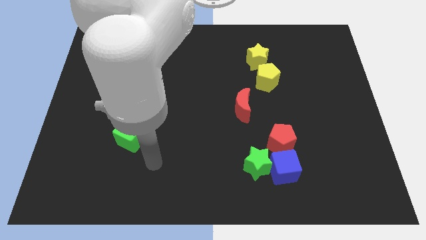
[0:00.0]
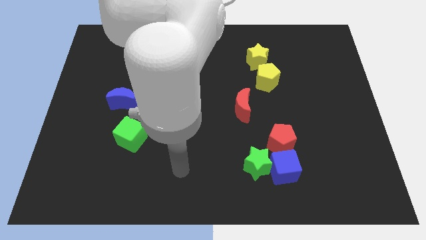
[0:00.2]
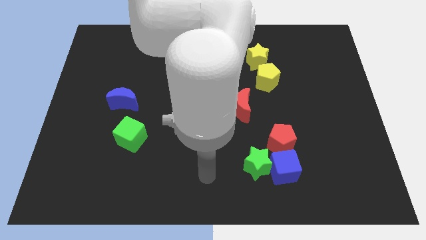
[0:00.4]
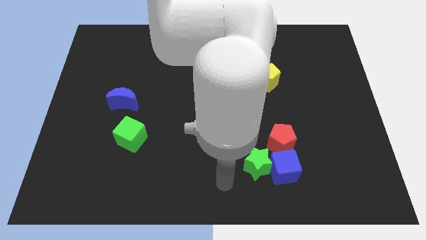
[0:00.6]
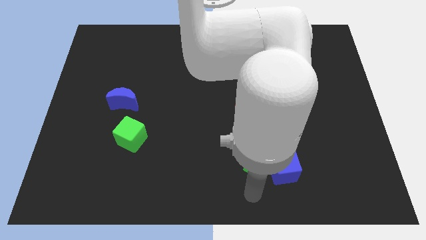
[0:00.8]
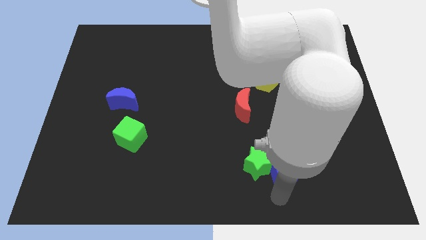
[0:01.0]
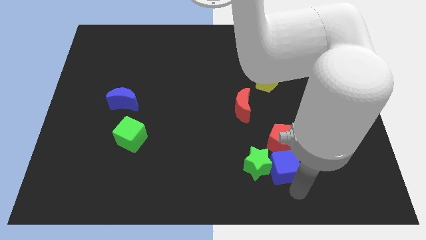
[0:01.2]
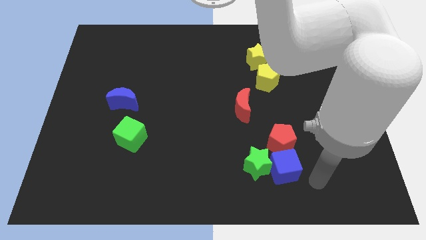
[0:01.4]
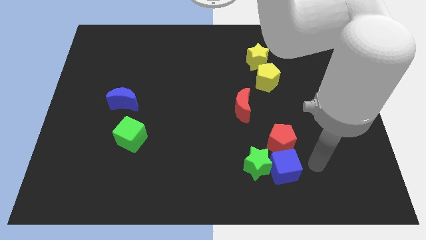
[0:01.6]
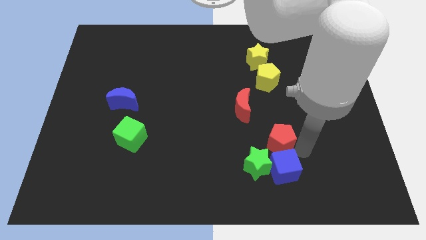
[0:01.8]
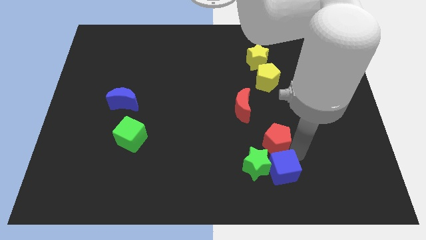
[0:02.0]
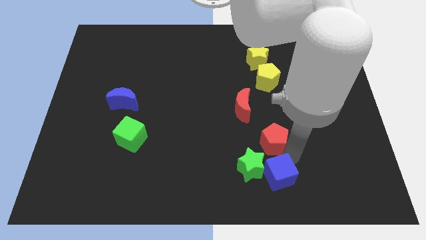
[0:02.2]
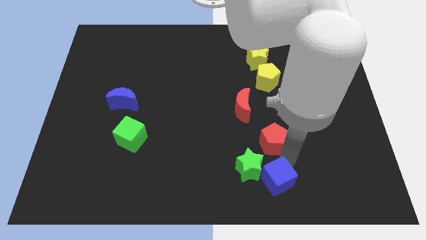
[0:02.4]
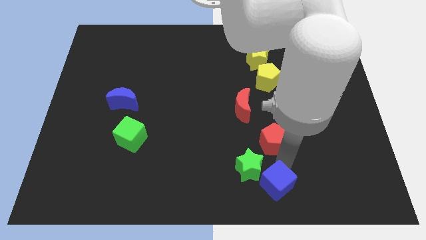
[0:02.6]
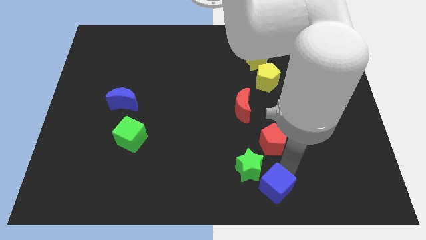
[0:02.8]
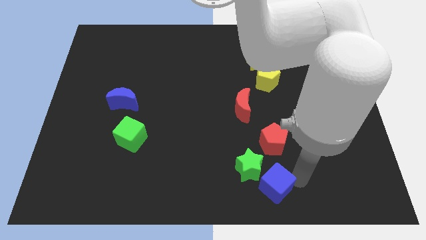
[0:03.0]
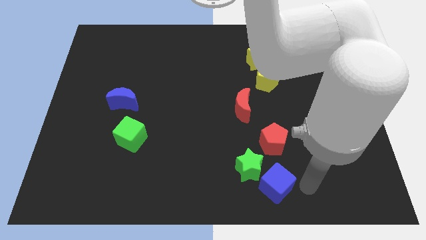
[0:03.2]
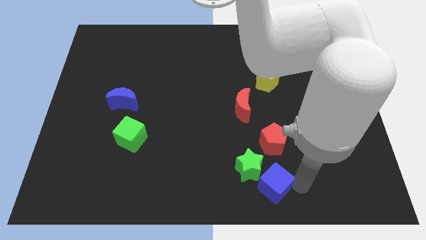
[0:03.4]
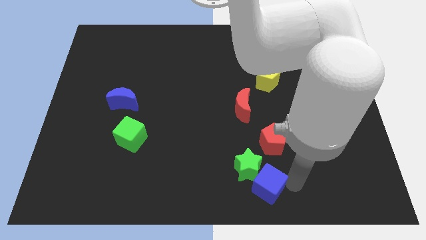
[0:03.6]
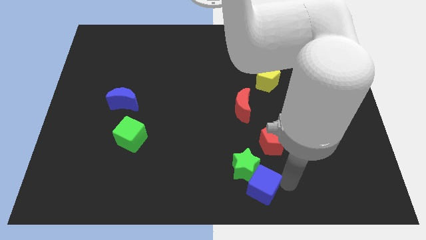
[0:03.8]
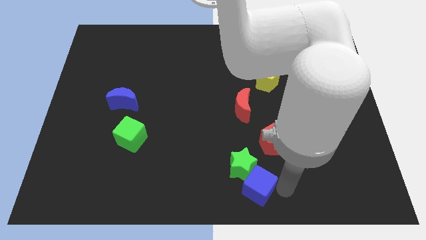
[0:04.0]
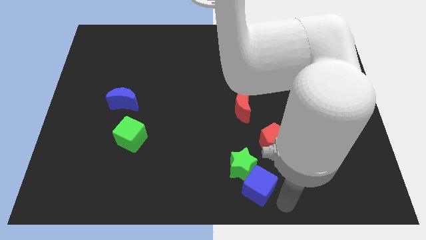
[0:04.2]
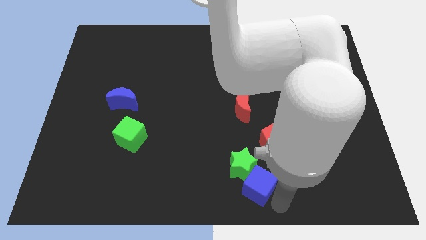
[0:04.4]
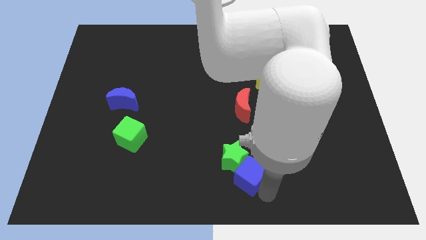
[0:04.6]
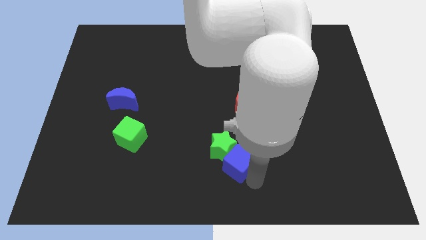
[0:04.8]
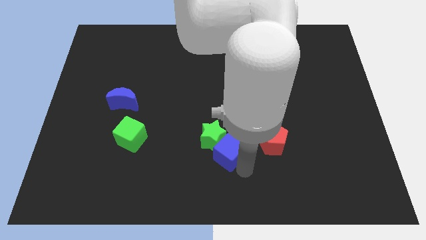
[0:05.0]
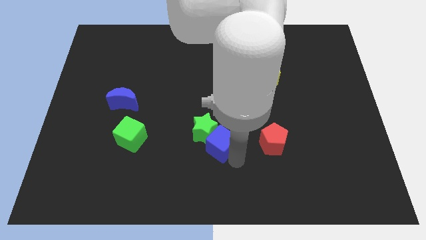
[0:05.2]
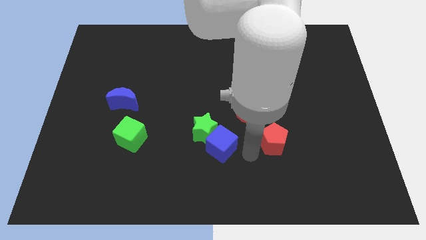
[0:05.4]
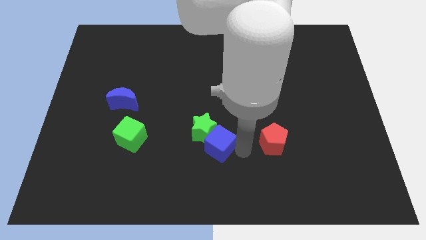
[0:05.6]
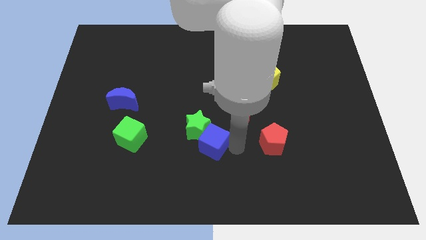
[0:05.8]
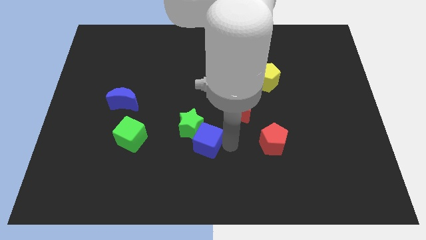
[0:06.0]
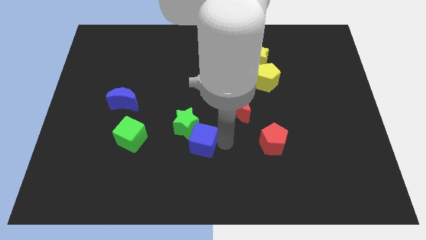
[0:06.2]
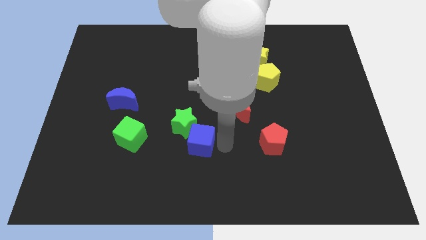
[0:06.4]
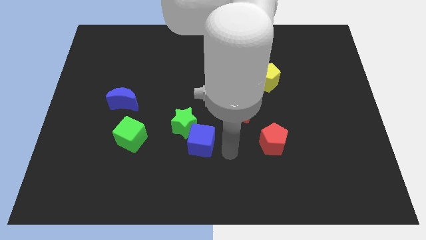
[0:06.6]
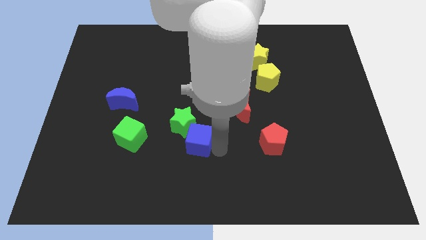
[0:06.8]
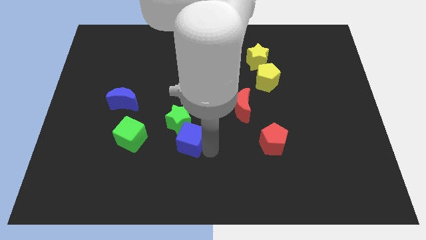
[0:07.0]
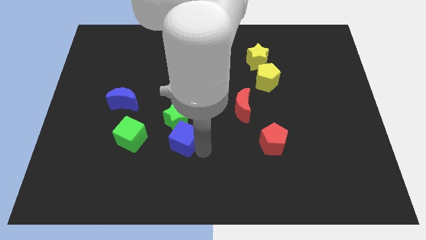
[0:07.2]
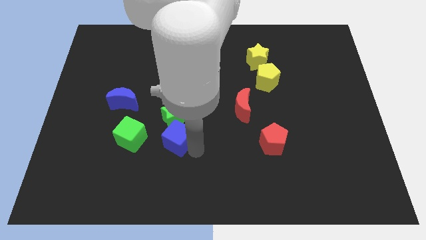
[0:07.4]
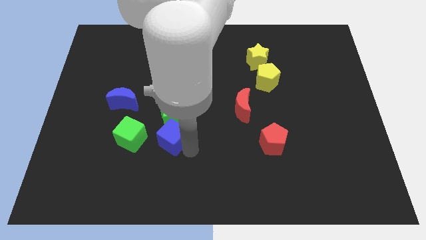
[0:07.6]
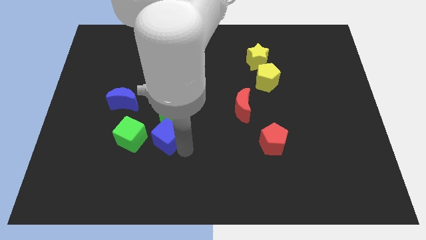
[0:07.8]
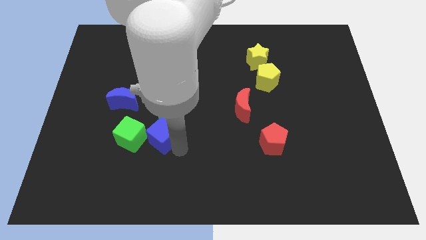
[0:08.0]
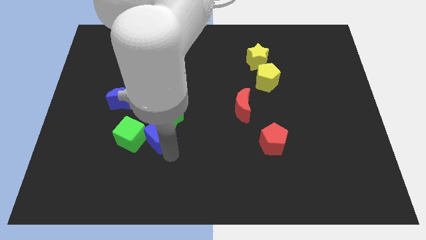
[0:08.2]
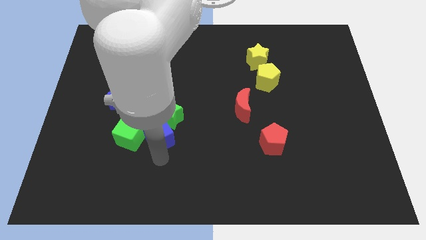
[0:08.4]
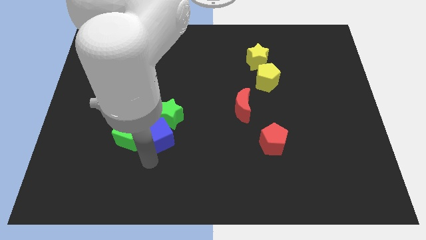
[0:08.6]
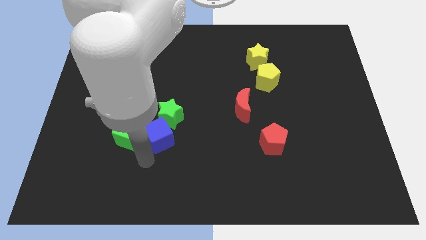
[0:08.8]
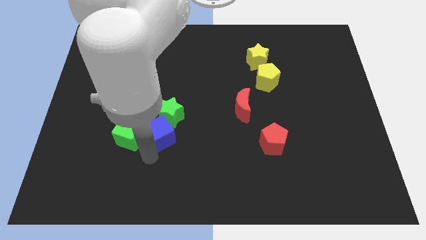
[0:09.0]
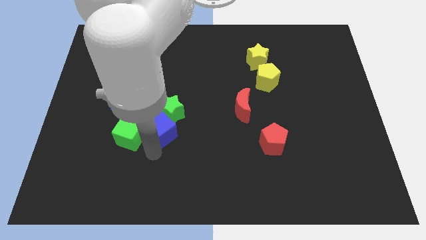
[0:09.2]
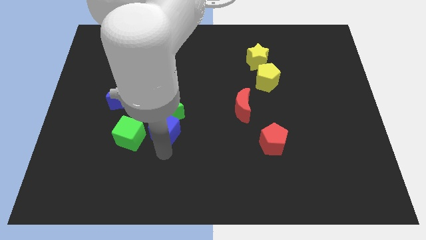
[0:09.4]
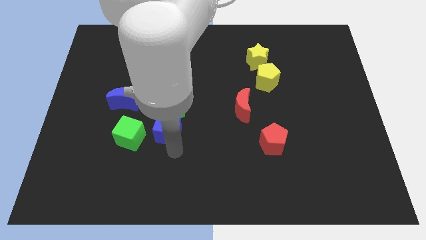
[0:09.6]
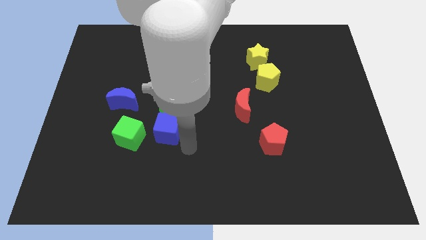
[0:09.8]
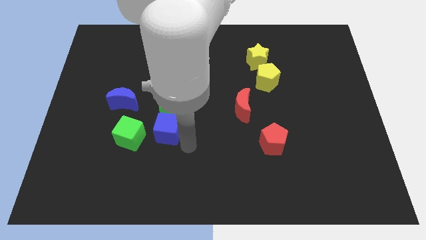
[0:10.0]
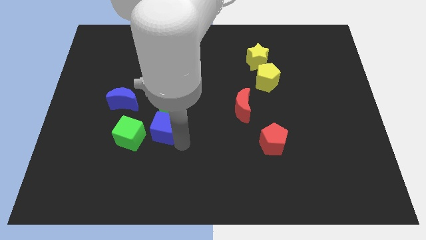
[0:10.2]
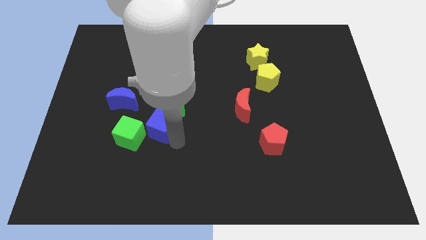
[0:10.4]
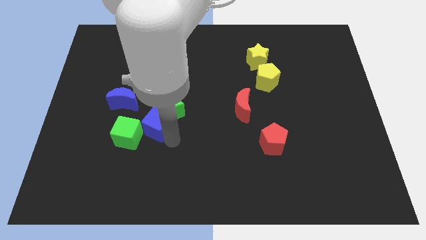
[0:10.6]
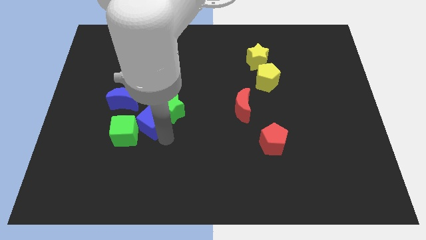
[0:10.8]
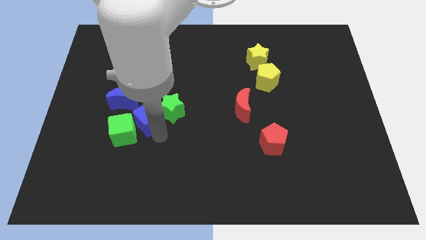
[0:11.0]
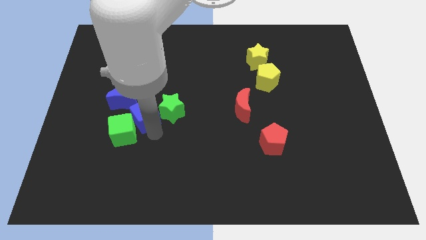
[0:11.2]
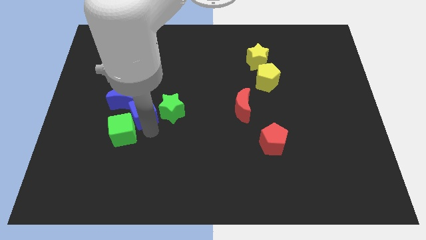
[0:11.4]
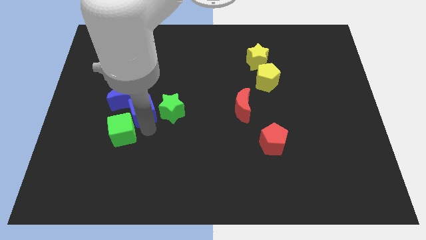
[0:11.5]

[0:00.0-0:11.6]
put the blue cube to the blue moon

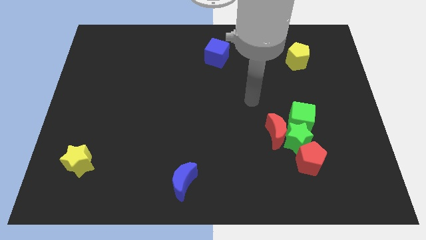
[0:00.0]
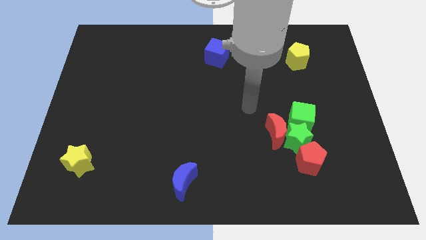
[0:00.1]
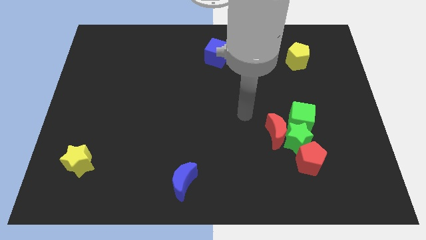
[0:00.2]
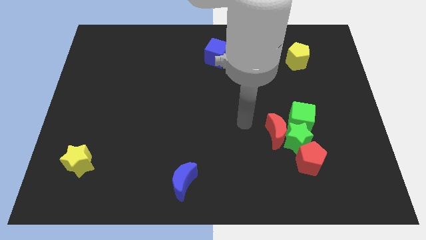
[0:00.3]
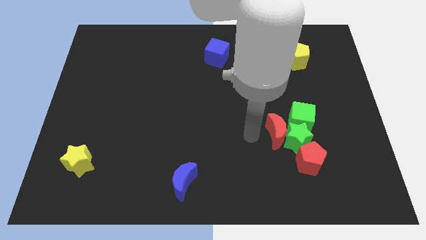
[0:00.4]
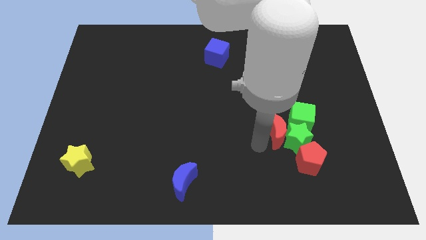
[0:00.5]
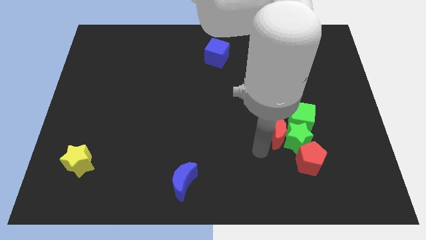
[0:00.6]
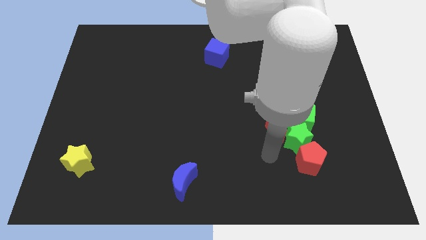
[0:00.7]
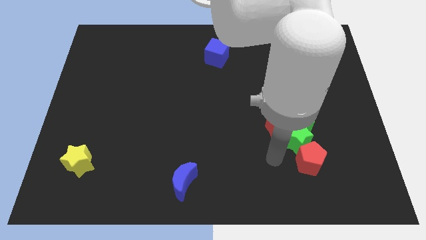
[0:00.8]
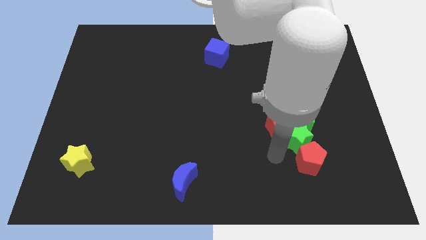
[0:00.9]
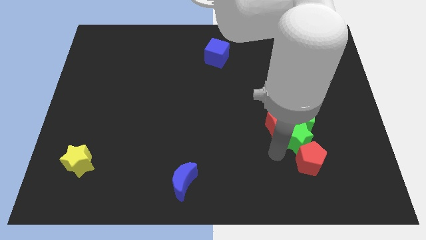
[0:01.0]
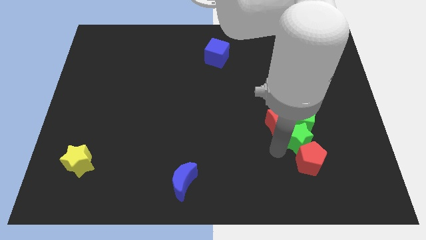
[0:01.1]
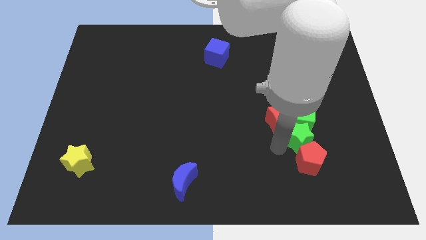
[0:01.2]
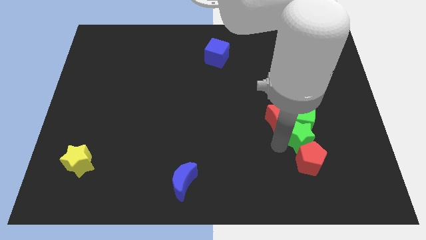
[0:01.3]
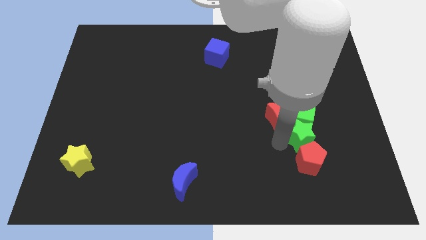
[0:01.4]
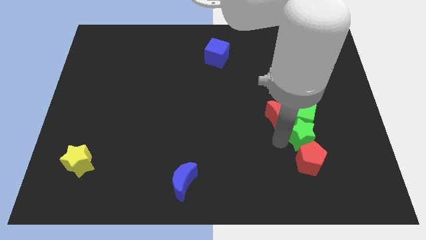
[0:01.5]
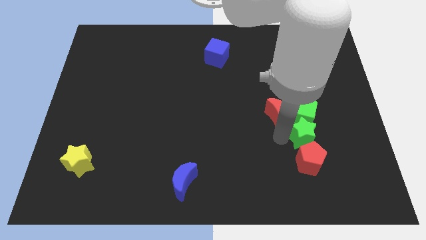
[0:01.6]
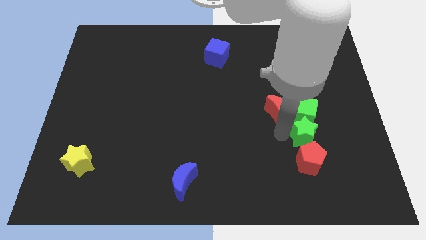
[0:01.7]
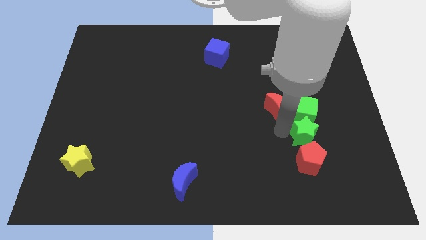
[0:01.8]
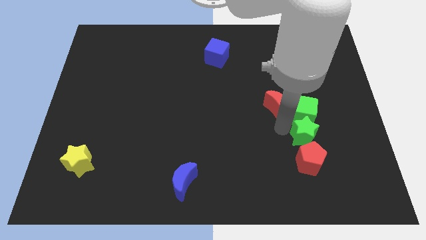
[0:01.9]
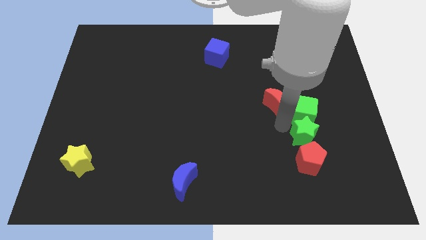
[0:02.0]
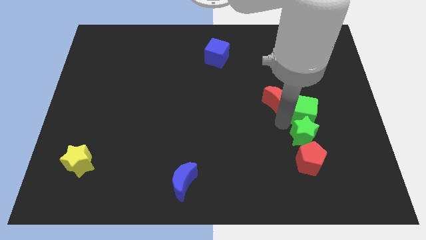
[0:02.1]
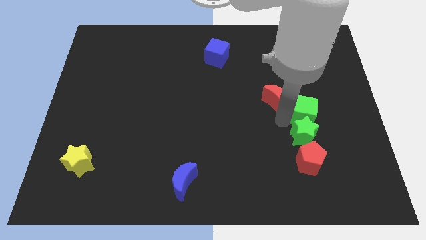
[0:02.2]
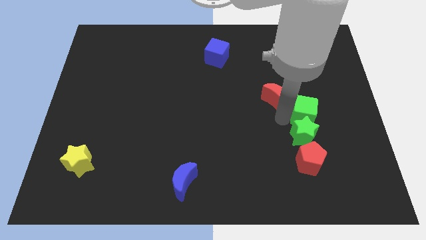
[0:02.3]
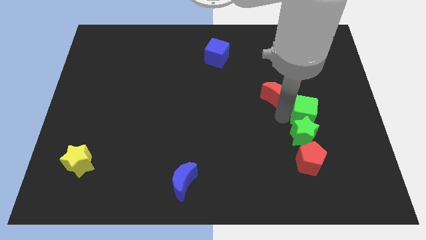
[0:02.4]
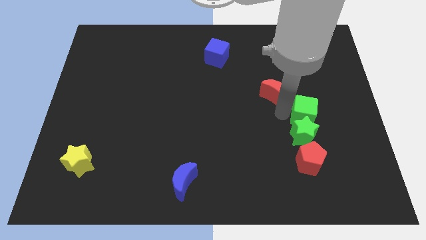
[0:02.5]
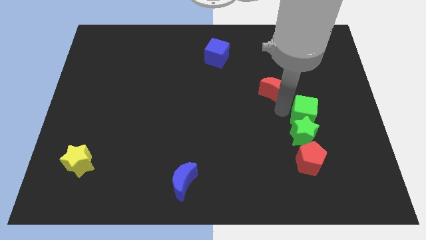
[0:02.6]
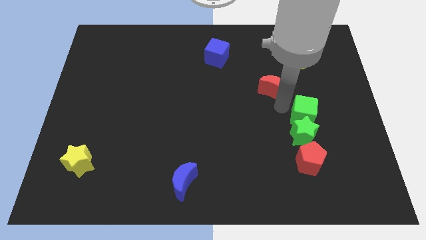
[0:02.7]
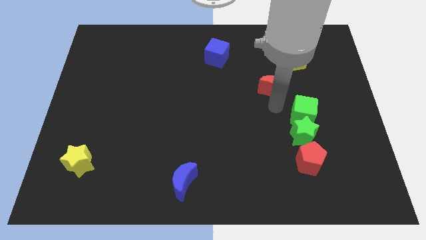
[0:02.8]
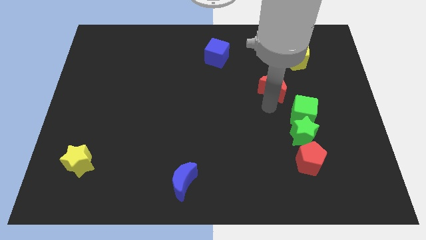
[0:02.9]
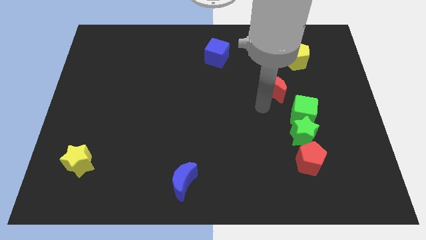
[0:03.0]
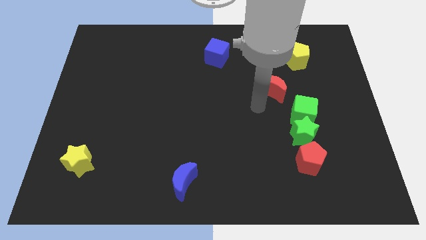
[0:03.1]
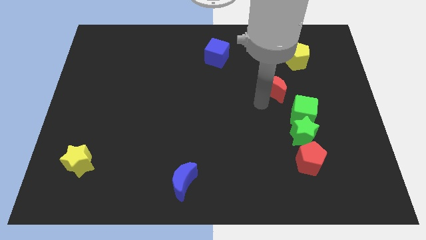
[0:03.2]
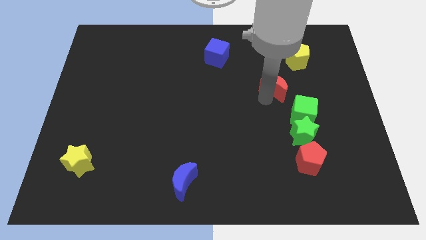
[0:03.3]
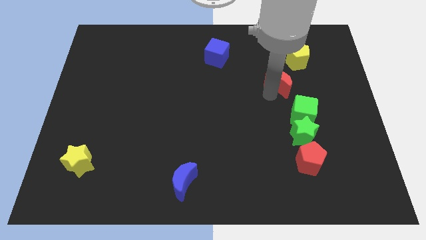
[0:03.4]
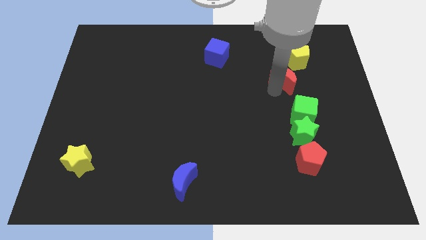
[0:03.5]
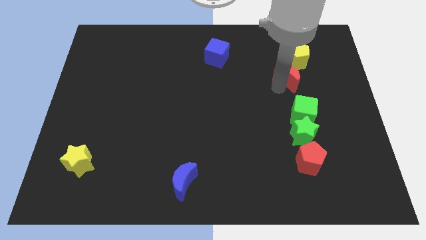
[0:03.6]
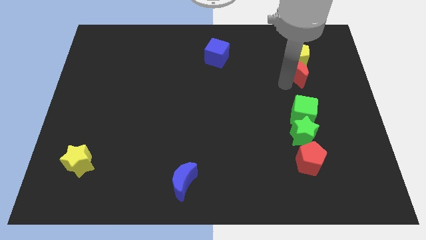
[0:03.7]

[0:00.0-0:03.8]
slide the red moon towards the yellow pentagon
